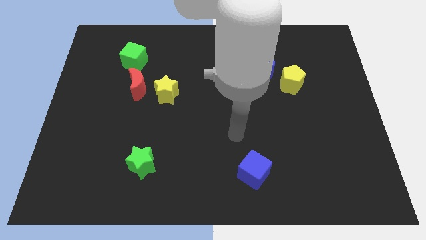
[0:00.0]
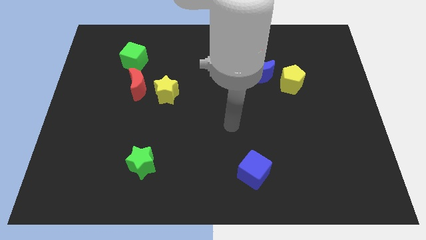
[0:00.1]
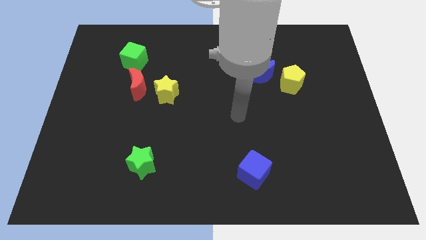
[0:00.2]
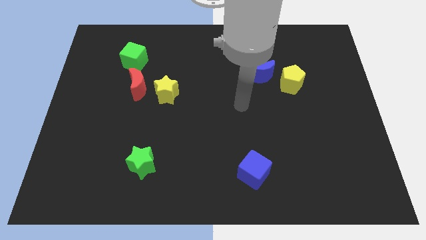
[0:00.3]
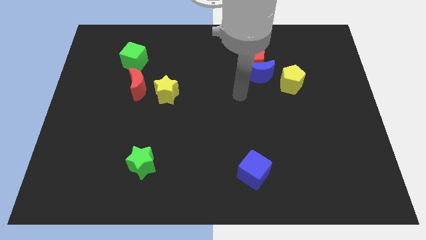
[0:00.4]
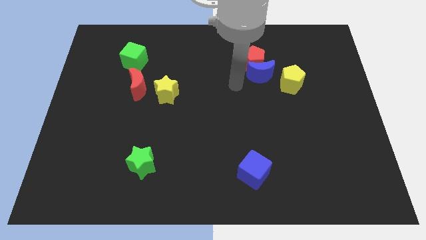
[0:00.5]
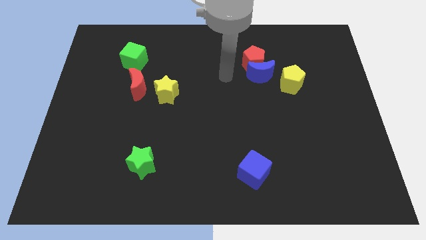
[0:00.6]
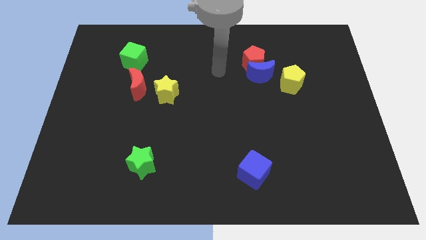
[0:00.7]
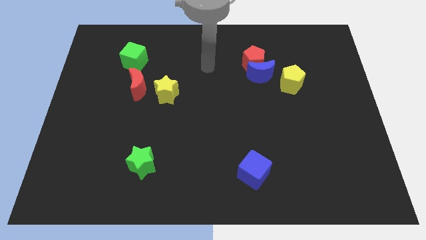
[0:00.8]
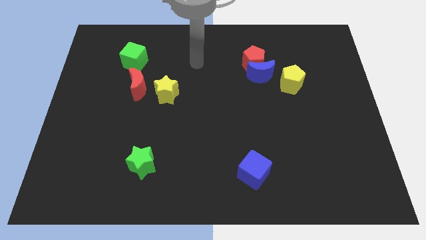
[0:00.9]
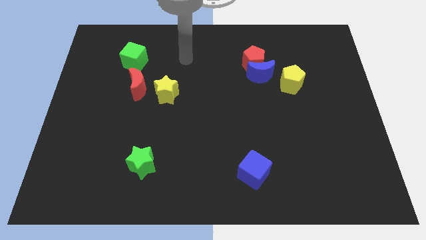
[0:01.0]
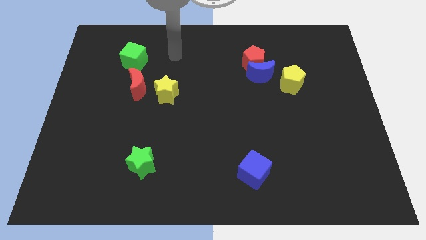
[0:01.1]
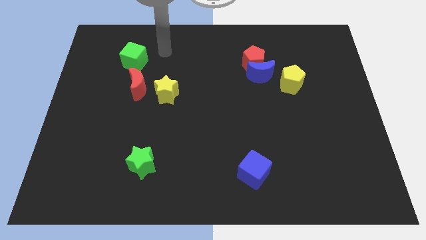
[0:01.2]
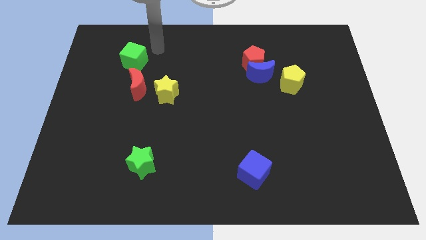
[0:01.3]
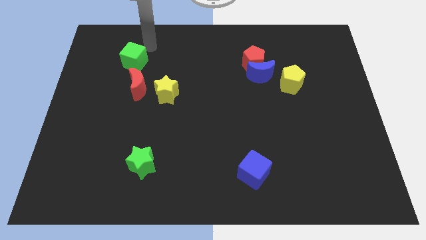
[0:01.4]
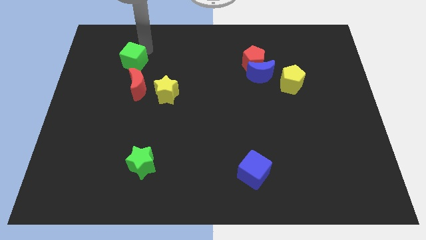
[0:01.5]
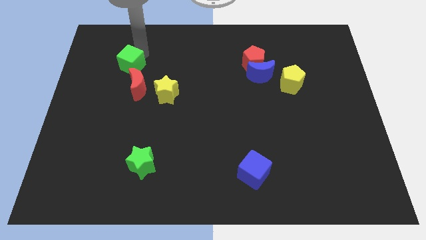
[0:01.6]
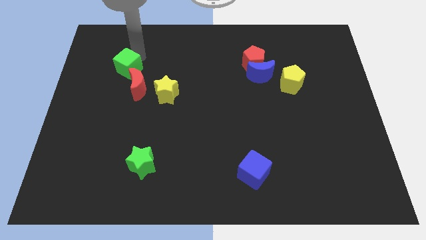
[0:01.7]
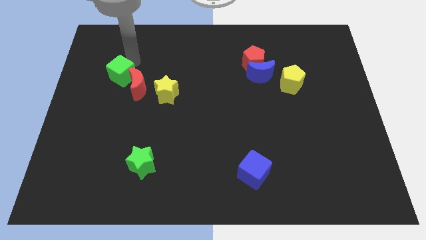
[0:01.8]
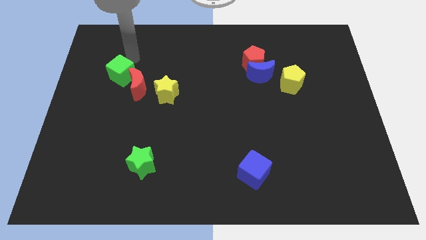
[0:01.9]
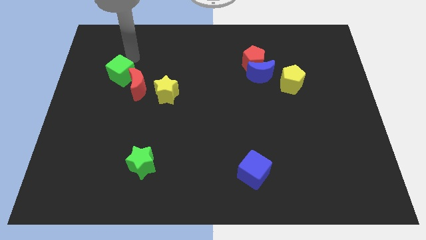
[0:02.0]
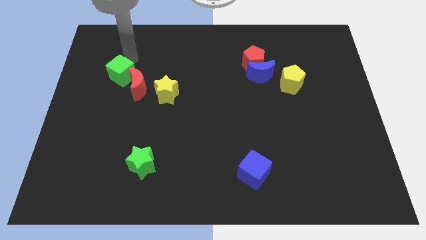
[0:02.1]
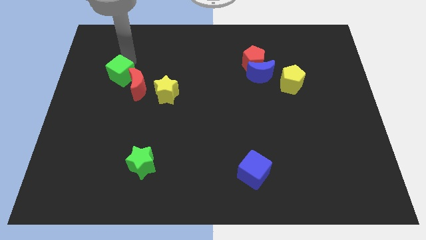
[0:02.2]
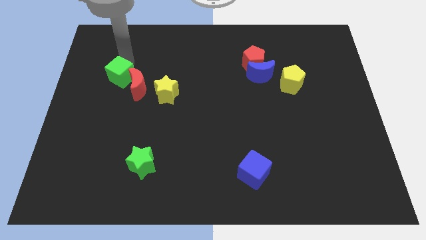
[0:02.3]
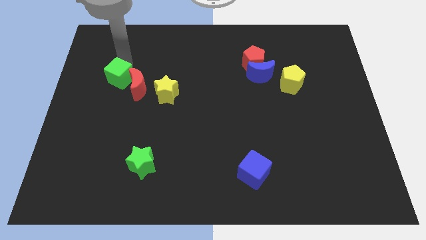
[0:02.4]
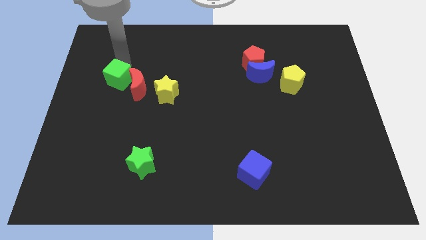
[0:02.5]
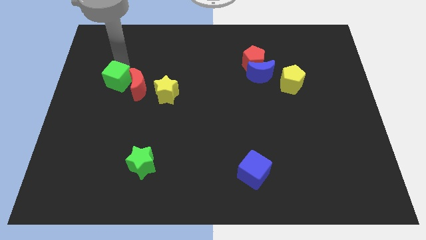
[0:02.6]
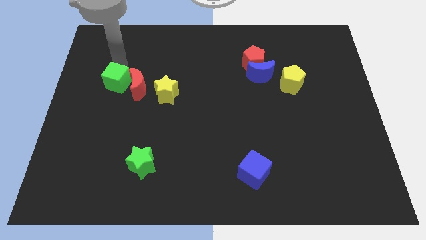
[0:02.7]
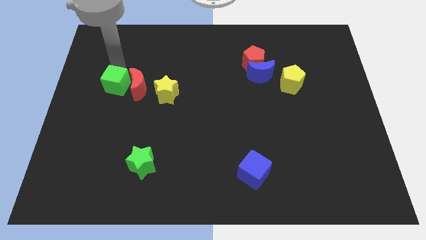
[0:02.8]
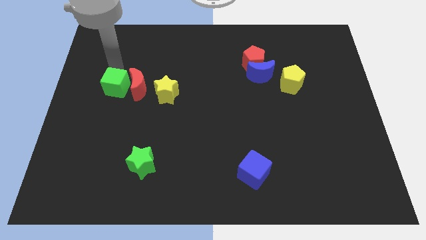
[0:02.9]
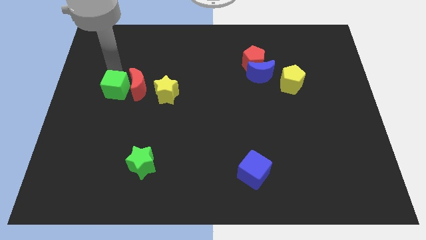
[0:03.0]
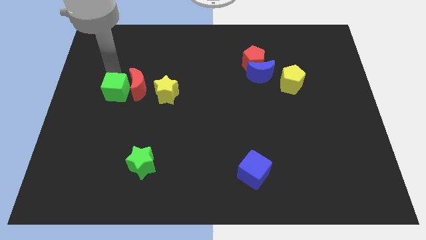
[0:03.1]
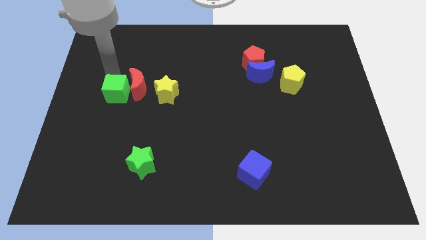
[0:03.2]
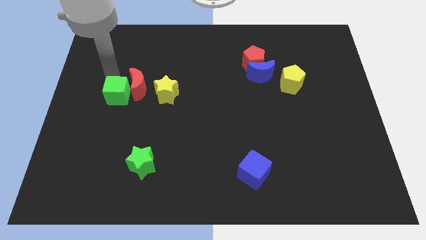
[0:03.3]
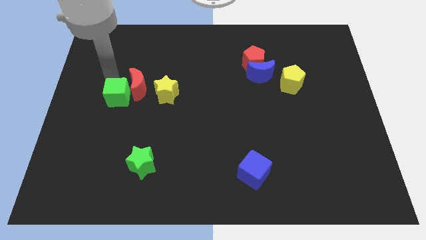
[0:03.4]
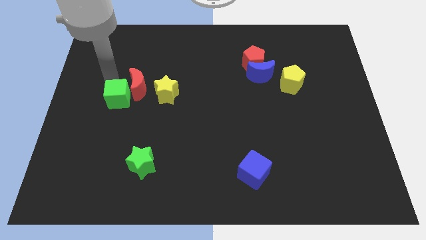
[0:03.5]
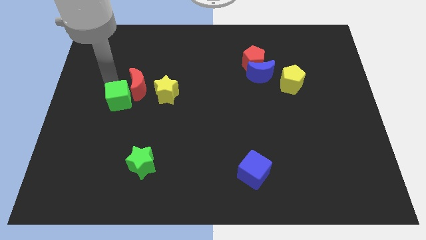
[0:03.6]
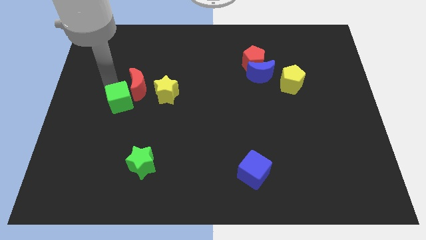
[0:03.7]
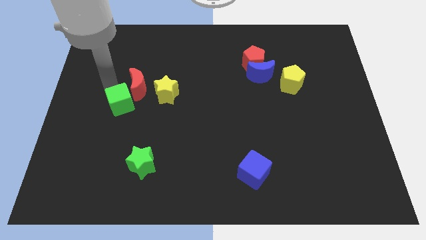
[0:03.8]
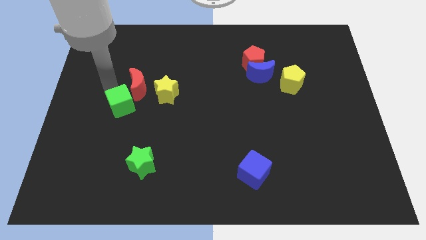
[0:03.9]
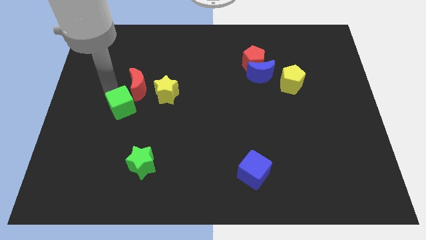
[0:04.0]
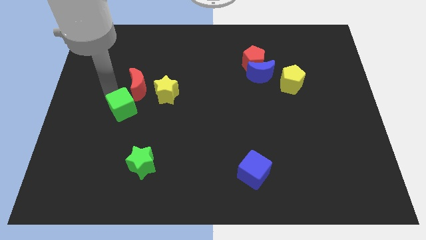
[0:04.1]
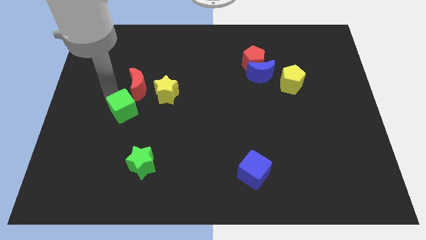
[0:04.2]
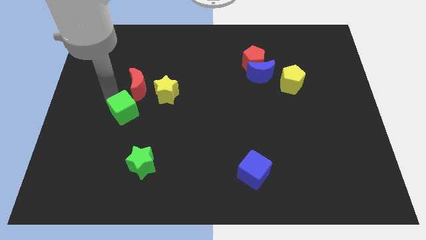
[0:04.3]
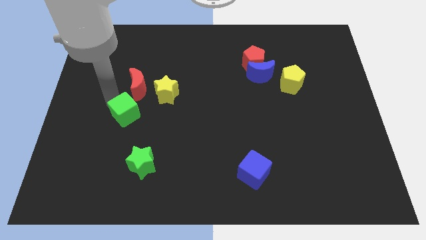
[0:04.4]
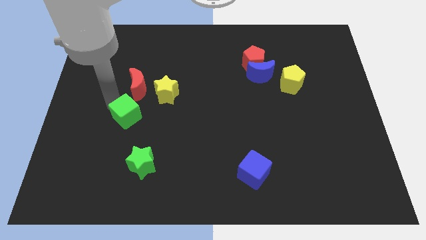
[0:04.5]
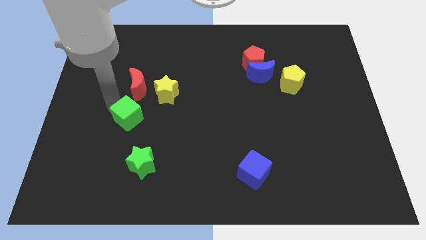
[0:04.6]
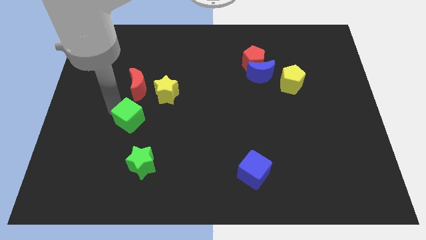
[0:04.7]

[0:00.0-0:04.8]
move the green cube to the top side of the green star

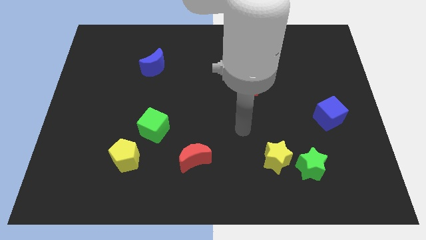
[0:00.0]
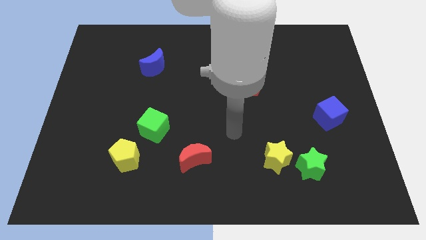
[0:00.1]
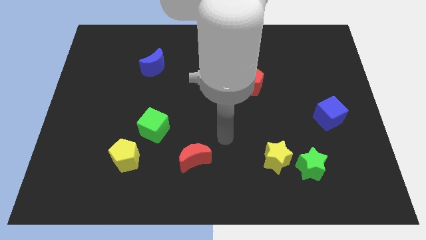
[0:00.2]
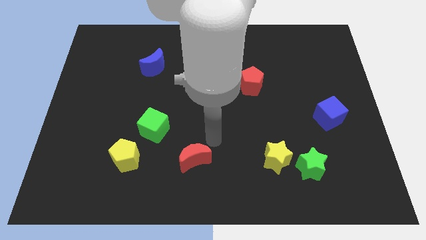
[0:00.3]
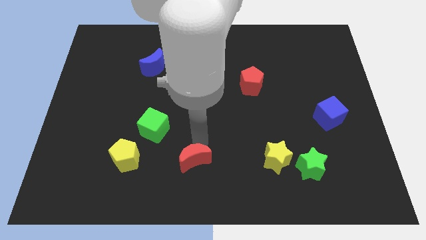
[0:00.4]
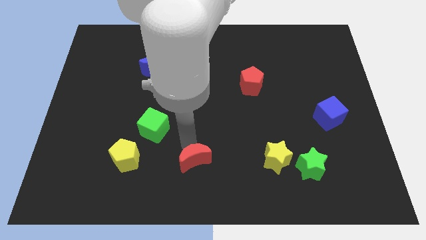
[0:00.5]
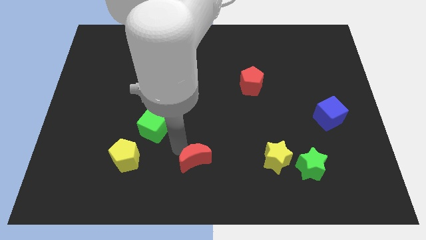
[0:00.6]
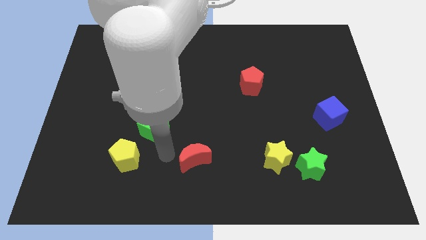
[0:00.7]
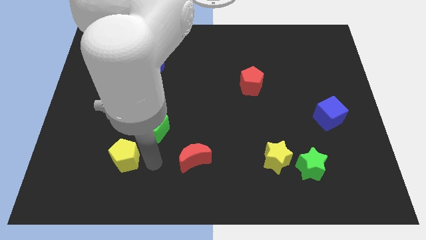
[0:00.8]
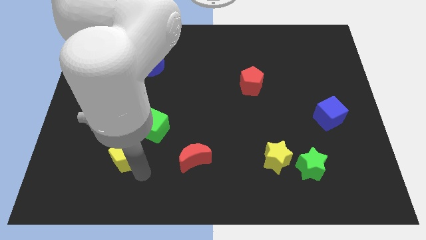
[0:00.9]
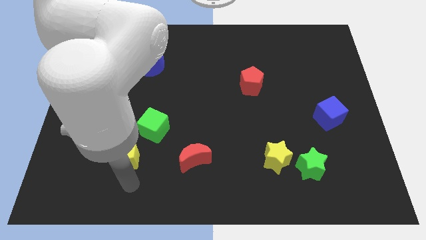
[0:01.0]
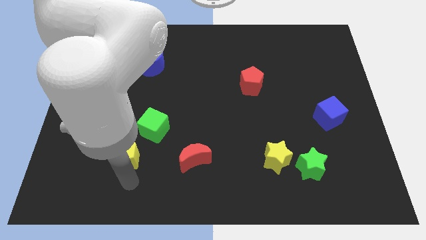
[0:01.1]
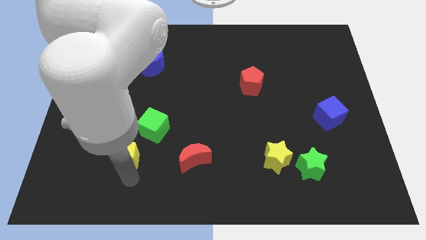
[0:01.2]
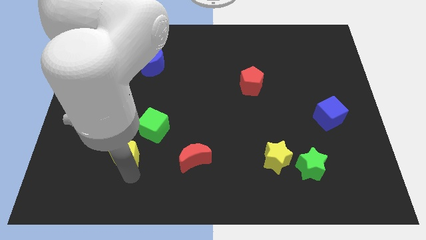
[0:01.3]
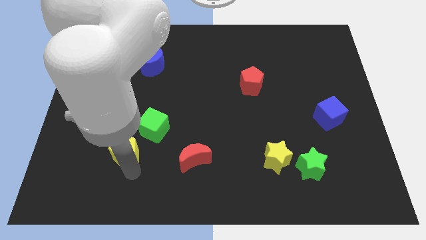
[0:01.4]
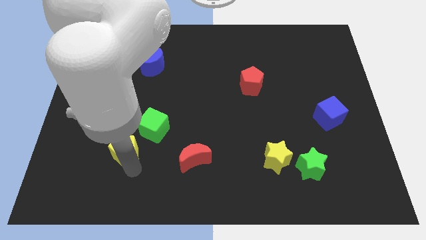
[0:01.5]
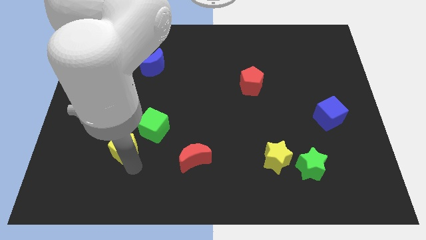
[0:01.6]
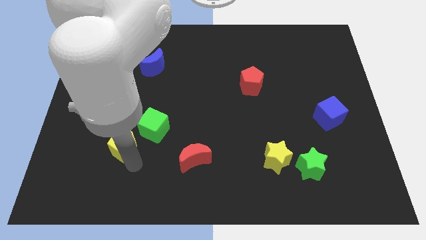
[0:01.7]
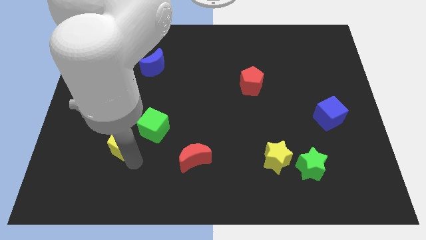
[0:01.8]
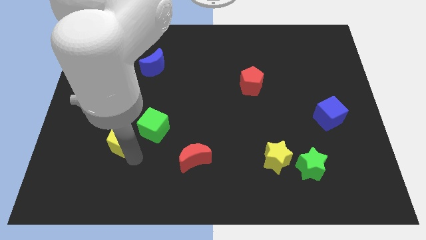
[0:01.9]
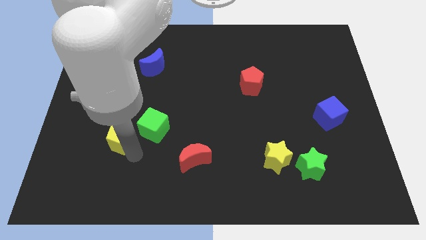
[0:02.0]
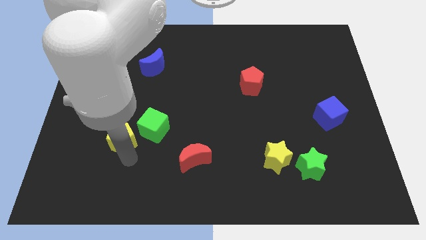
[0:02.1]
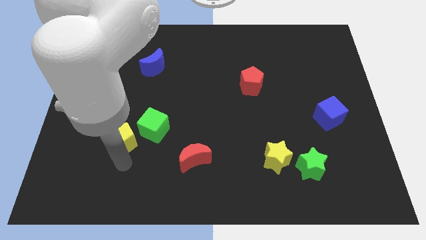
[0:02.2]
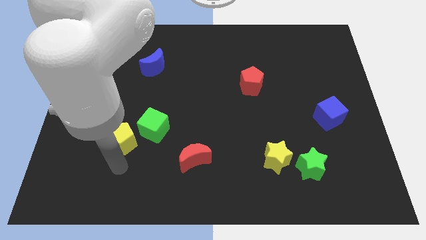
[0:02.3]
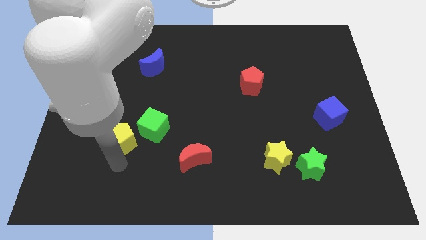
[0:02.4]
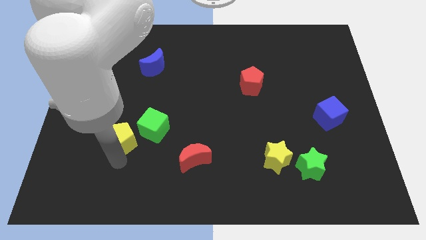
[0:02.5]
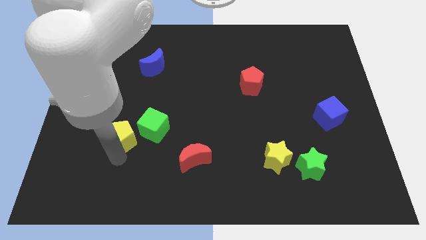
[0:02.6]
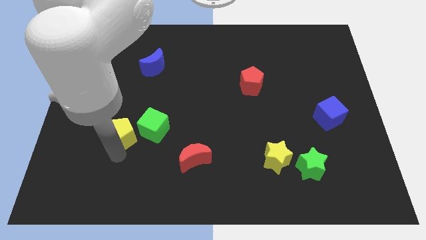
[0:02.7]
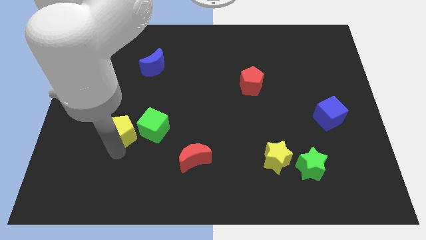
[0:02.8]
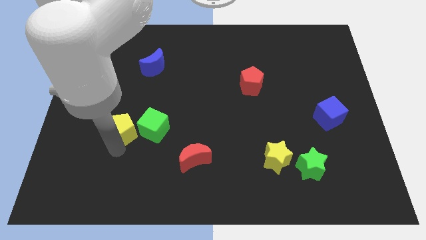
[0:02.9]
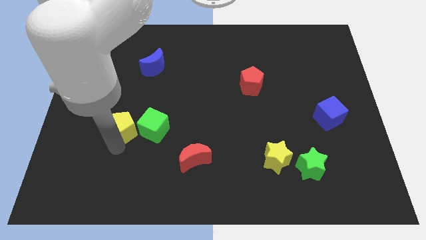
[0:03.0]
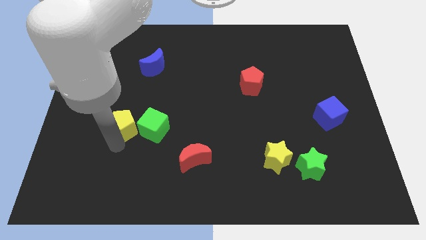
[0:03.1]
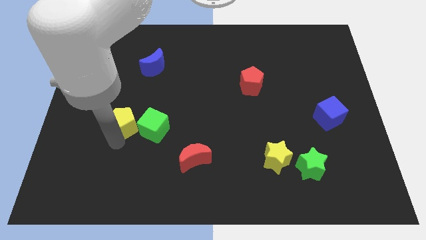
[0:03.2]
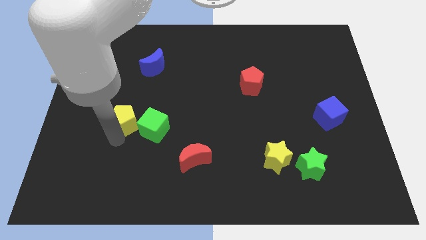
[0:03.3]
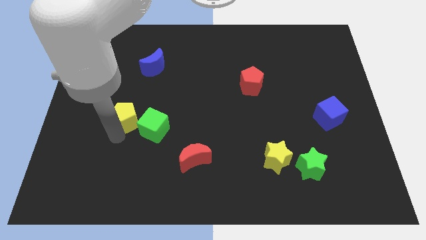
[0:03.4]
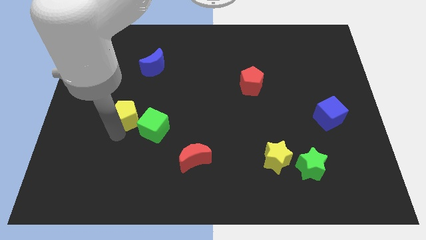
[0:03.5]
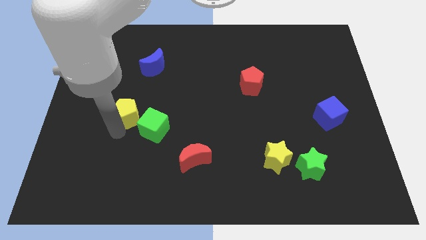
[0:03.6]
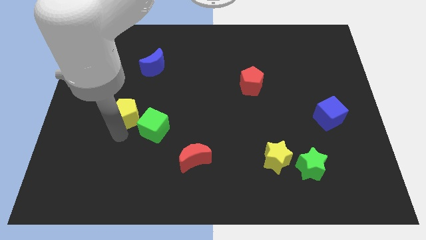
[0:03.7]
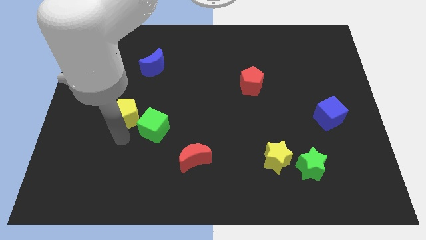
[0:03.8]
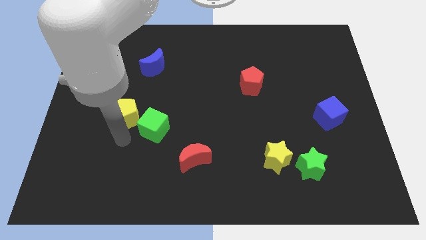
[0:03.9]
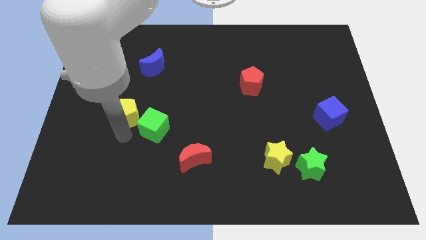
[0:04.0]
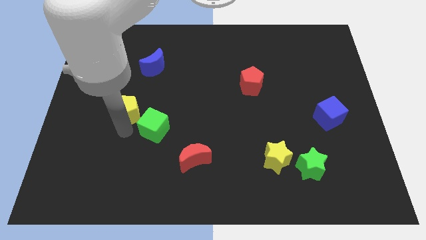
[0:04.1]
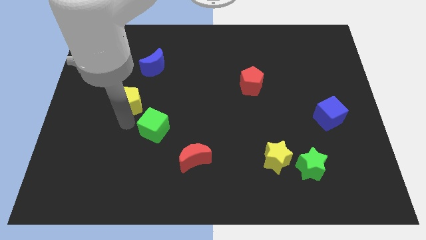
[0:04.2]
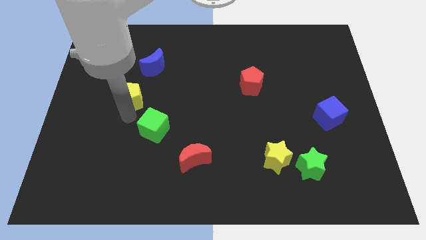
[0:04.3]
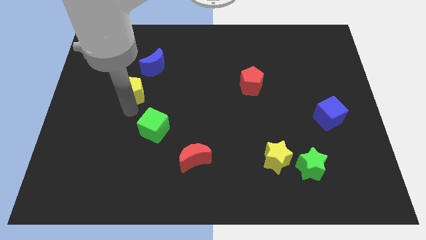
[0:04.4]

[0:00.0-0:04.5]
push the yellow pentagon to the bottom left side of the blue moon
